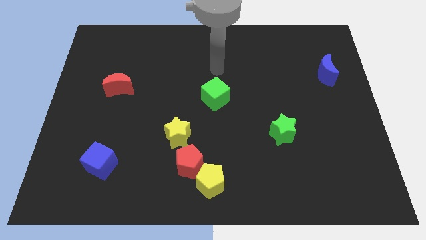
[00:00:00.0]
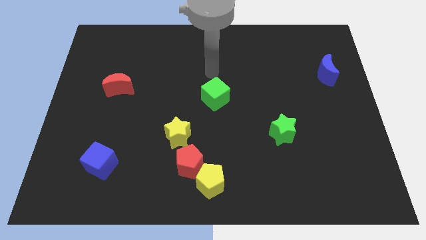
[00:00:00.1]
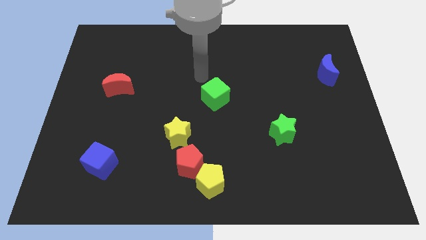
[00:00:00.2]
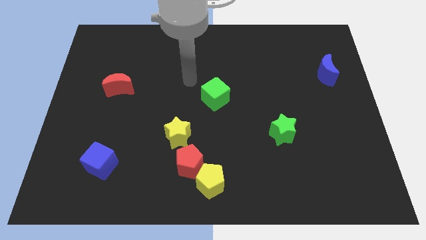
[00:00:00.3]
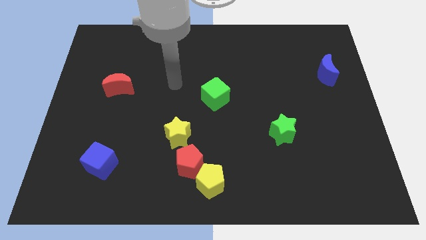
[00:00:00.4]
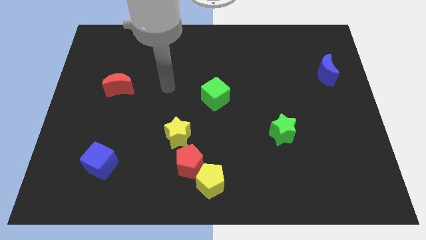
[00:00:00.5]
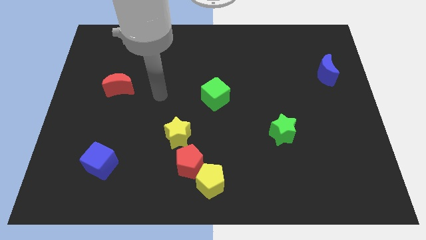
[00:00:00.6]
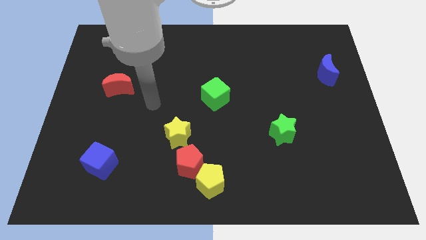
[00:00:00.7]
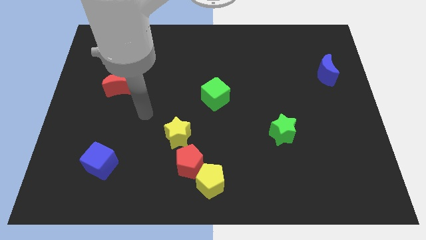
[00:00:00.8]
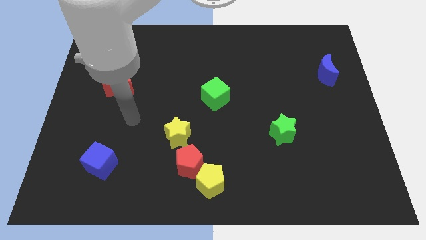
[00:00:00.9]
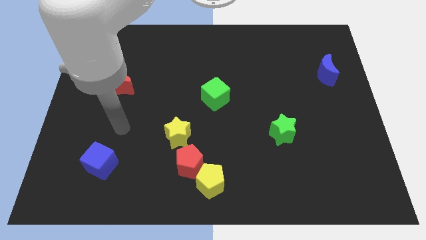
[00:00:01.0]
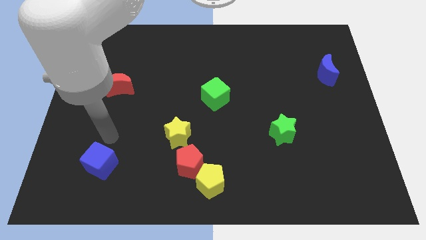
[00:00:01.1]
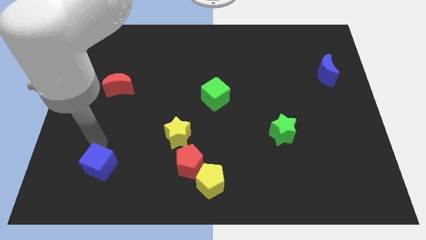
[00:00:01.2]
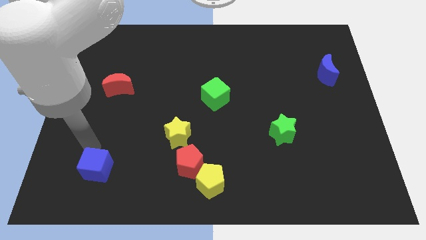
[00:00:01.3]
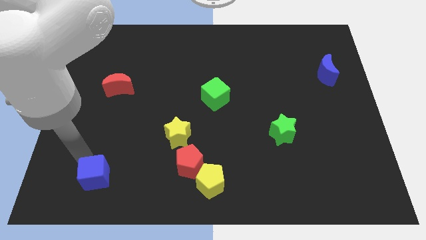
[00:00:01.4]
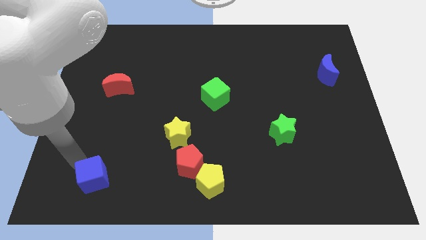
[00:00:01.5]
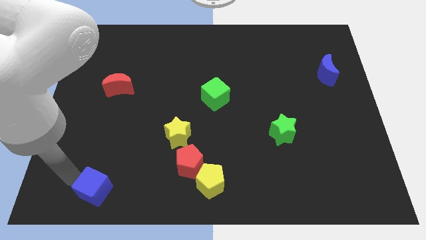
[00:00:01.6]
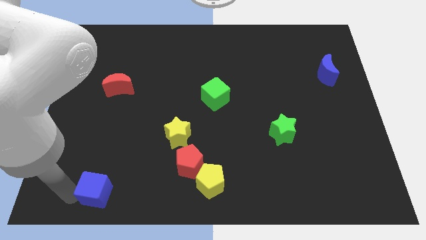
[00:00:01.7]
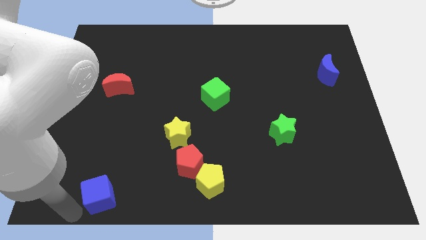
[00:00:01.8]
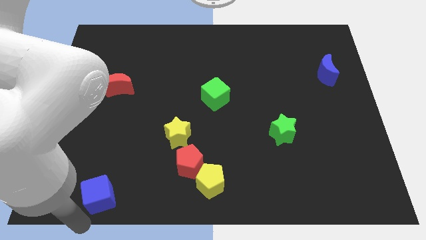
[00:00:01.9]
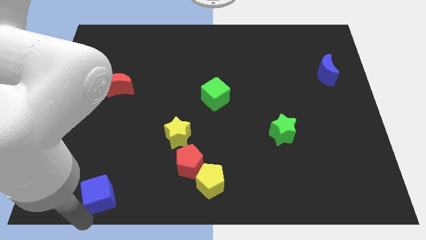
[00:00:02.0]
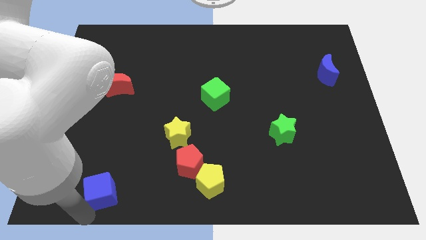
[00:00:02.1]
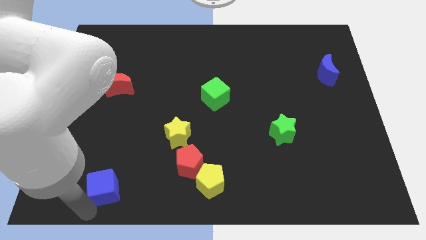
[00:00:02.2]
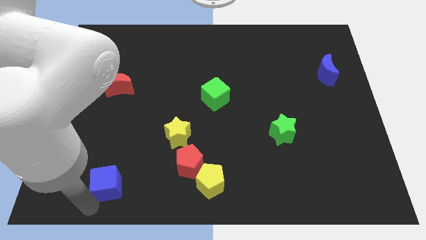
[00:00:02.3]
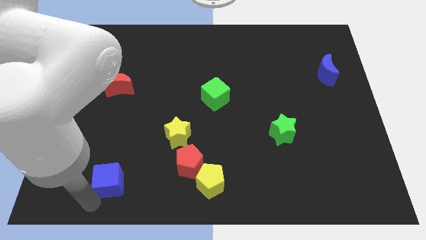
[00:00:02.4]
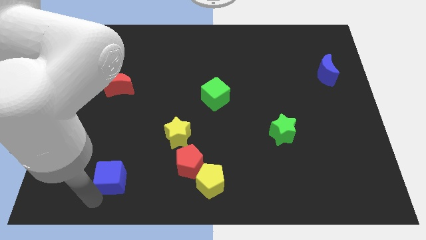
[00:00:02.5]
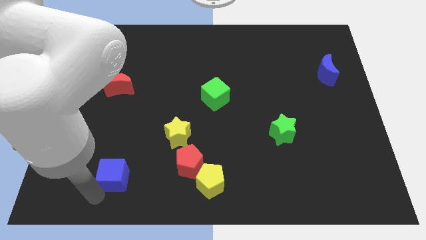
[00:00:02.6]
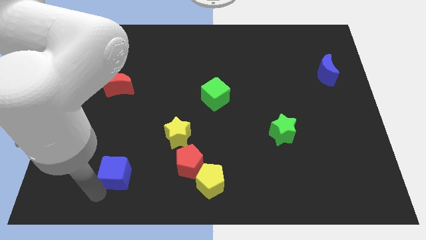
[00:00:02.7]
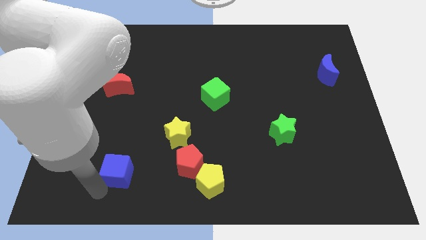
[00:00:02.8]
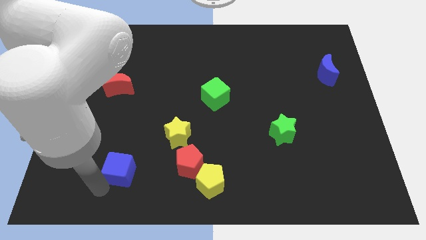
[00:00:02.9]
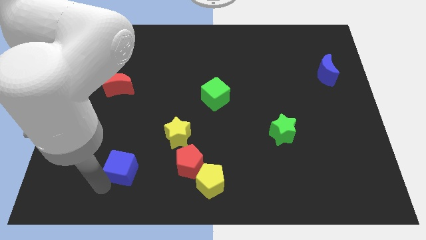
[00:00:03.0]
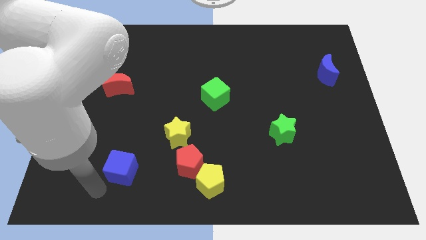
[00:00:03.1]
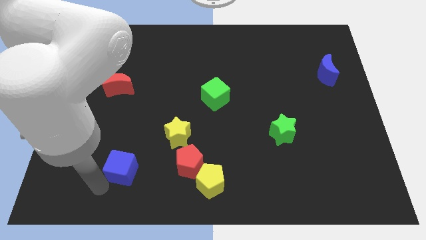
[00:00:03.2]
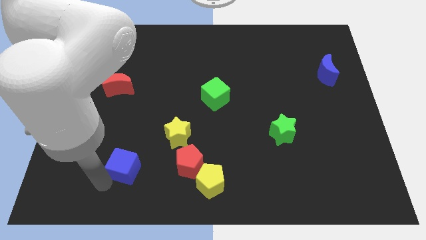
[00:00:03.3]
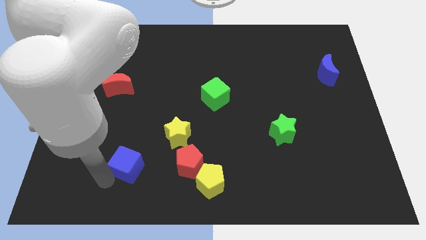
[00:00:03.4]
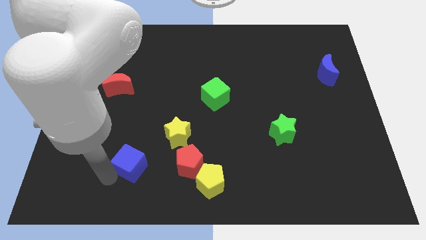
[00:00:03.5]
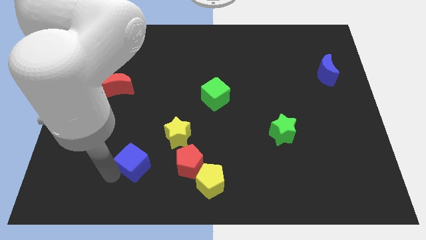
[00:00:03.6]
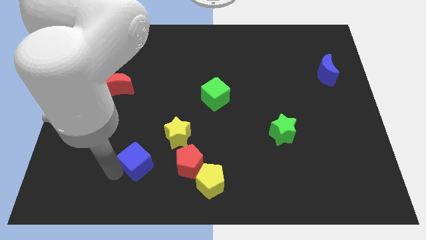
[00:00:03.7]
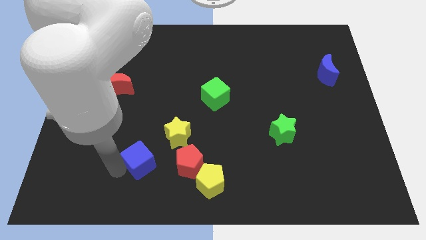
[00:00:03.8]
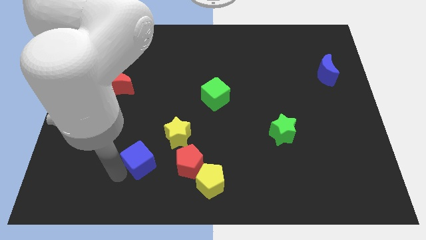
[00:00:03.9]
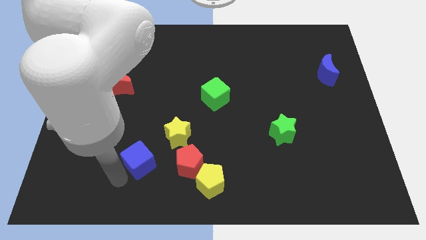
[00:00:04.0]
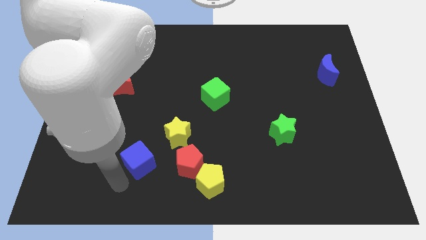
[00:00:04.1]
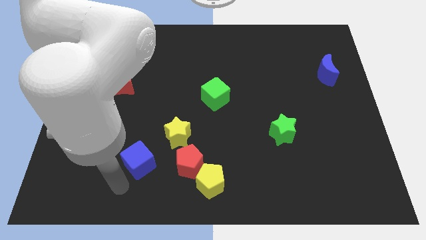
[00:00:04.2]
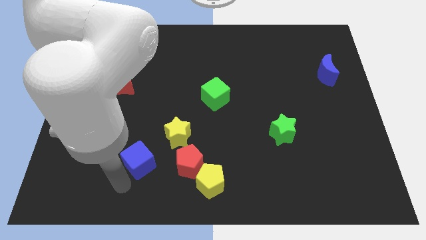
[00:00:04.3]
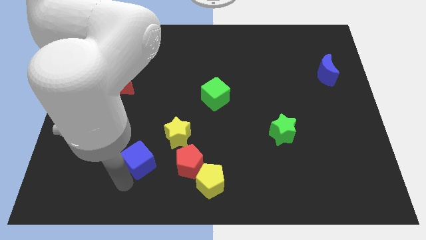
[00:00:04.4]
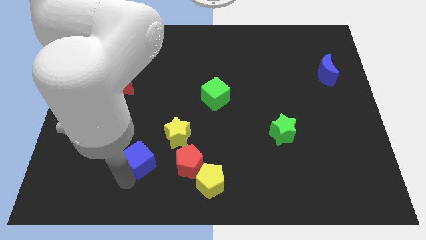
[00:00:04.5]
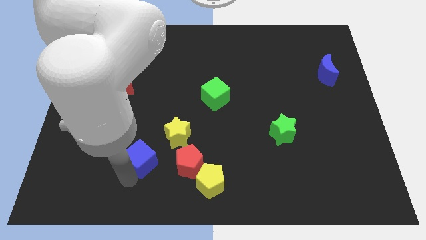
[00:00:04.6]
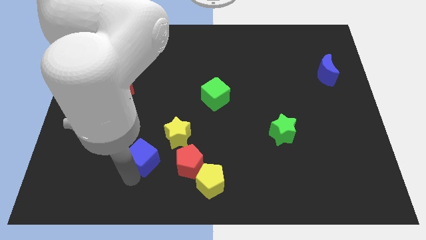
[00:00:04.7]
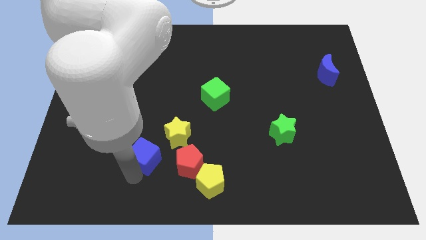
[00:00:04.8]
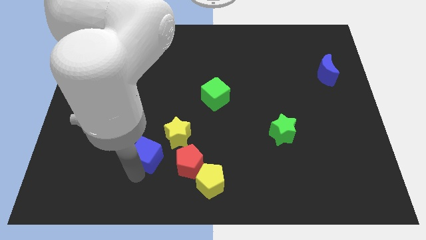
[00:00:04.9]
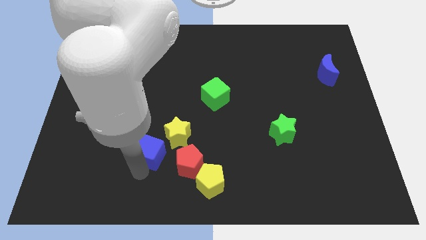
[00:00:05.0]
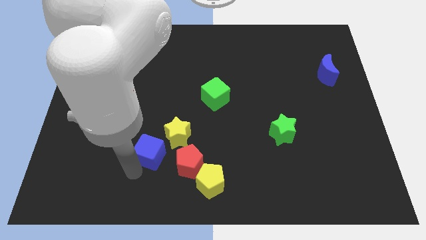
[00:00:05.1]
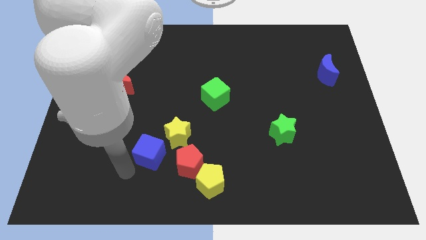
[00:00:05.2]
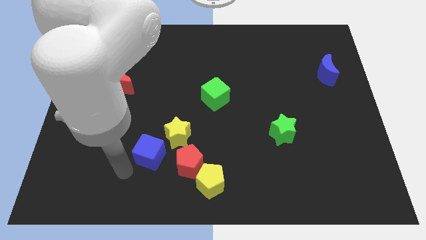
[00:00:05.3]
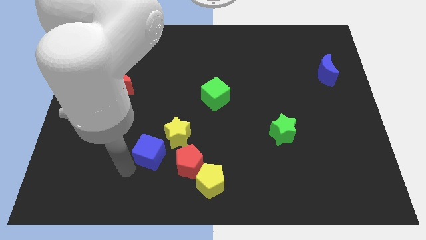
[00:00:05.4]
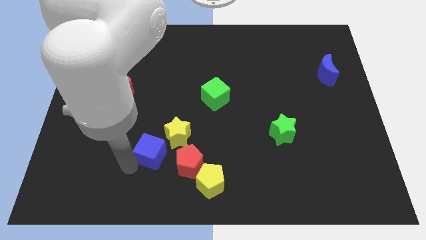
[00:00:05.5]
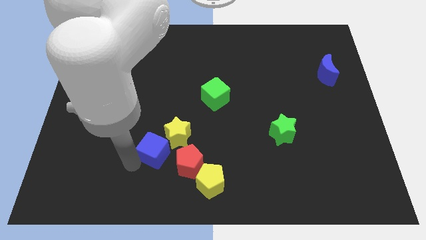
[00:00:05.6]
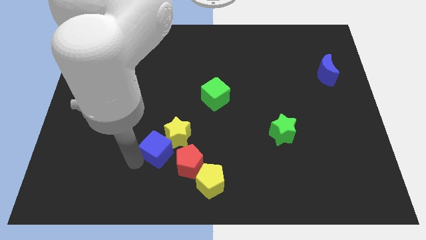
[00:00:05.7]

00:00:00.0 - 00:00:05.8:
put the blue cube to the yellow star

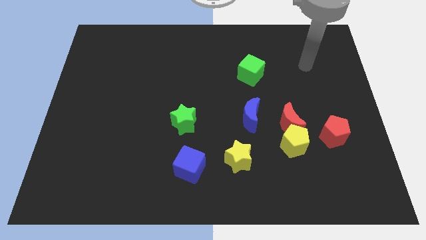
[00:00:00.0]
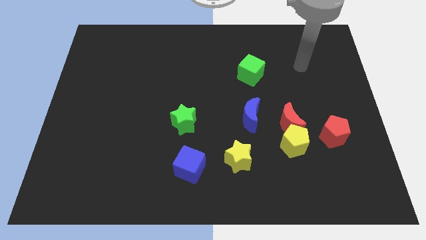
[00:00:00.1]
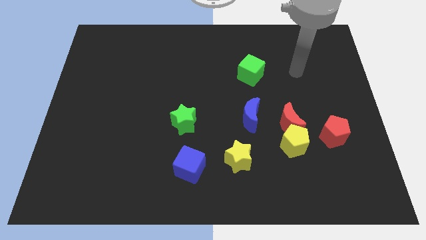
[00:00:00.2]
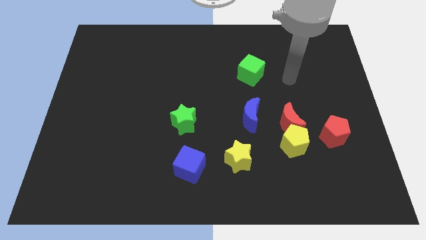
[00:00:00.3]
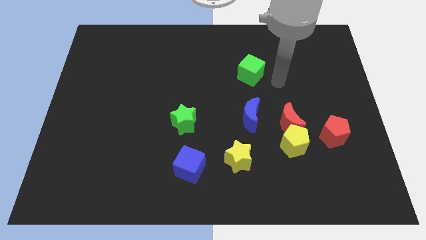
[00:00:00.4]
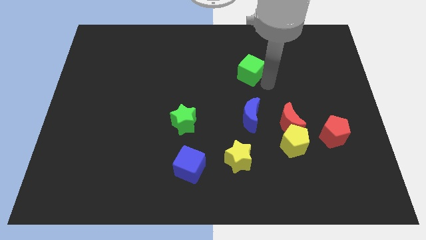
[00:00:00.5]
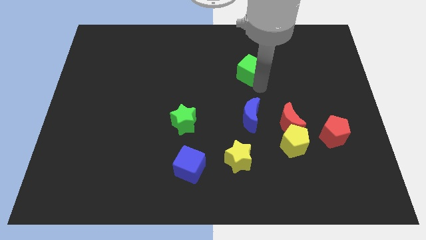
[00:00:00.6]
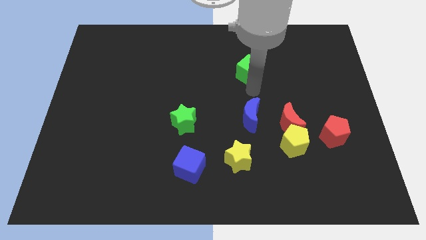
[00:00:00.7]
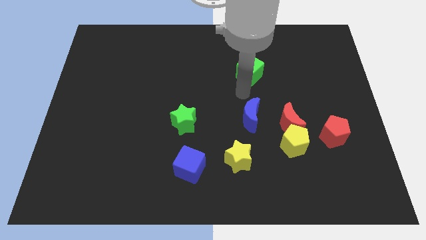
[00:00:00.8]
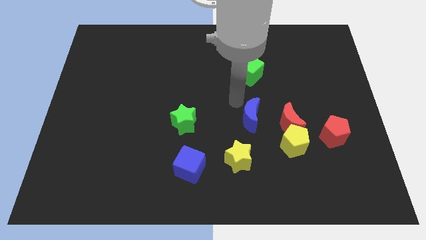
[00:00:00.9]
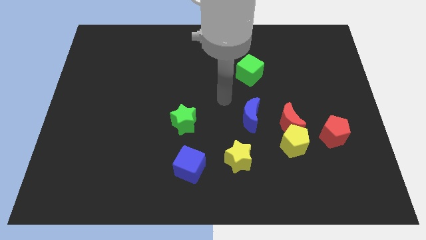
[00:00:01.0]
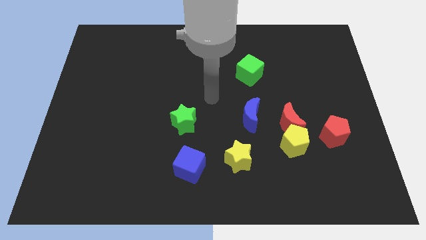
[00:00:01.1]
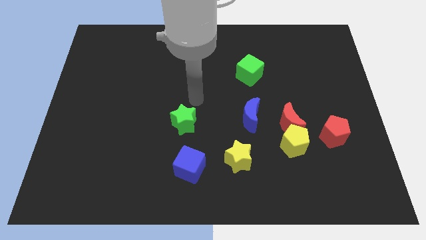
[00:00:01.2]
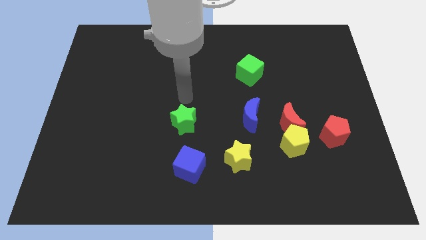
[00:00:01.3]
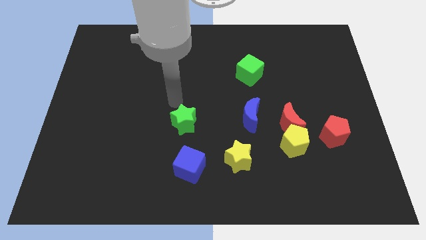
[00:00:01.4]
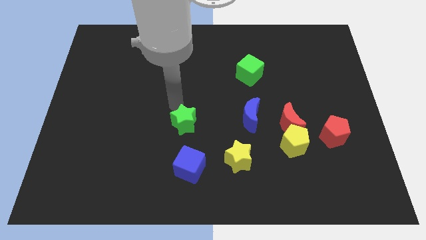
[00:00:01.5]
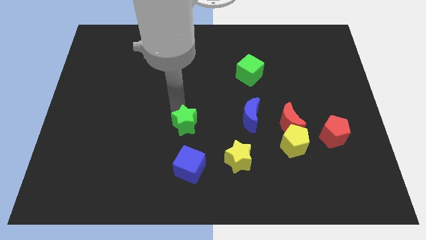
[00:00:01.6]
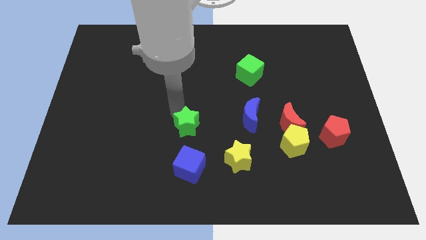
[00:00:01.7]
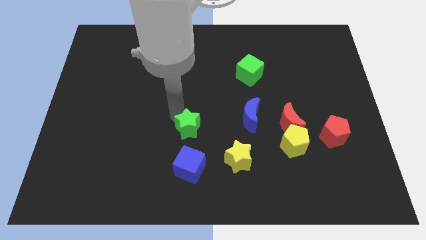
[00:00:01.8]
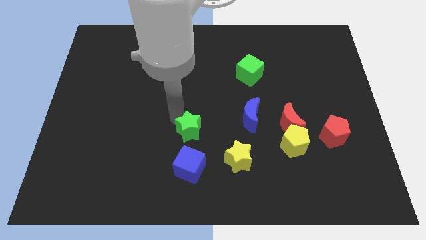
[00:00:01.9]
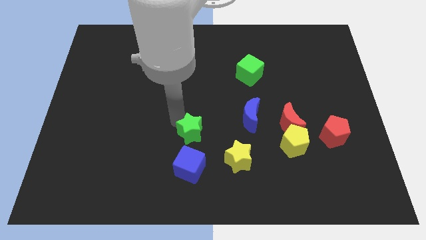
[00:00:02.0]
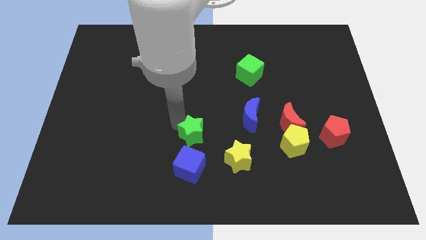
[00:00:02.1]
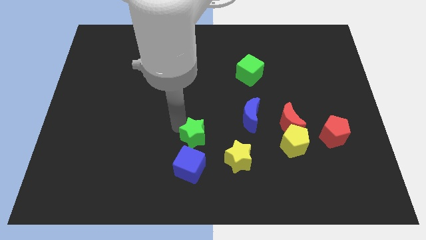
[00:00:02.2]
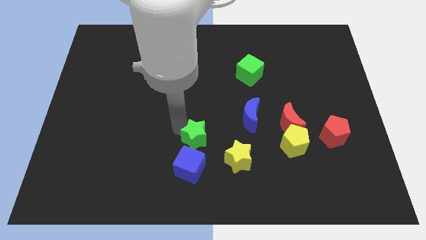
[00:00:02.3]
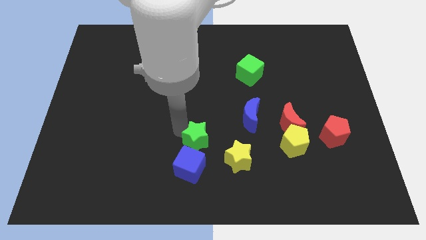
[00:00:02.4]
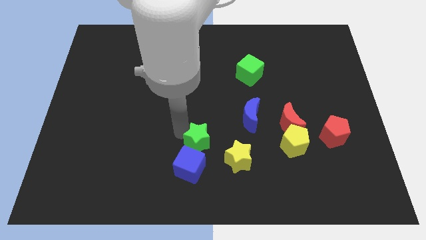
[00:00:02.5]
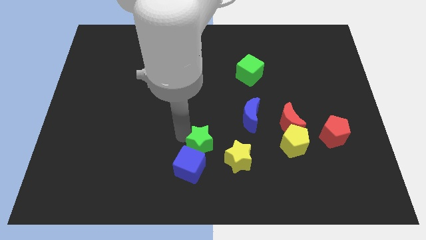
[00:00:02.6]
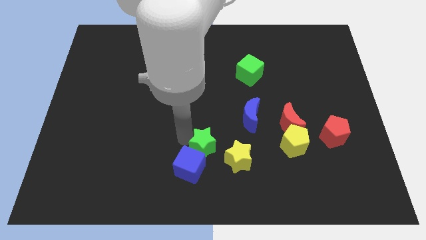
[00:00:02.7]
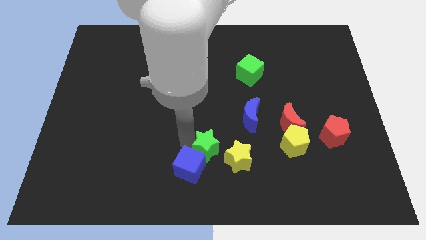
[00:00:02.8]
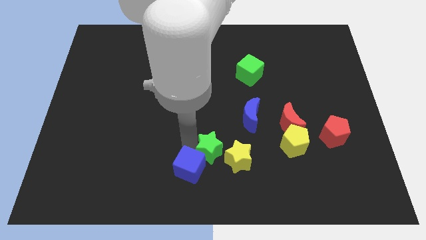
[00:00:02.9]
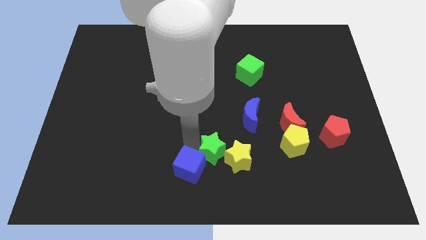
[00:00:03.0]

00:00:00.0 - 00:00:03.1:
slide the green star towards the yellow star
